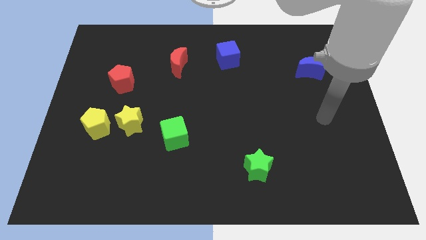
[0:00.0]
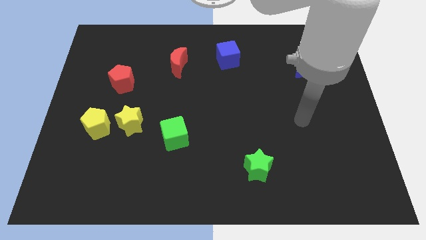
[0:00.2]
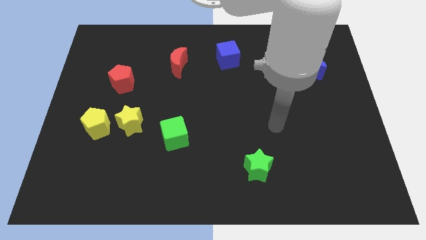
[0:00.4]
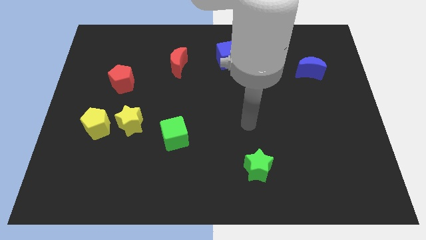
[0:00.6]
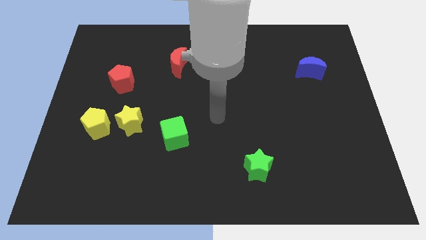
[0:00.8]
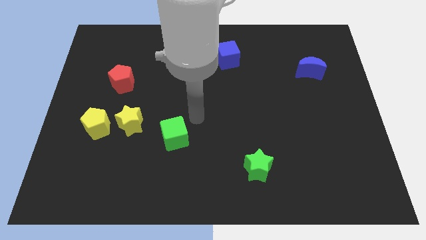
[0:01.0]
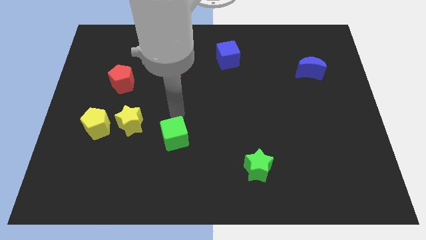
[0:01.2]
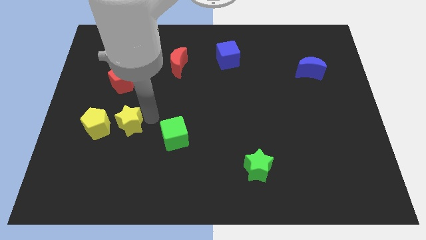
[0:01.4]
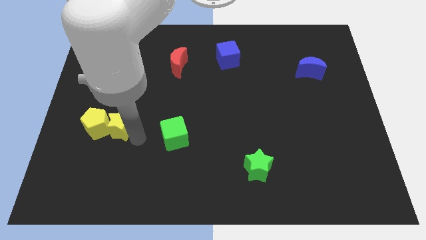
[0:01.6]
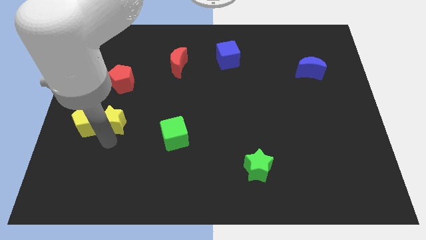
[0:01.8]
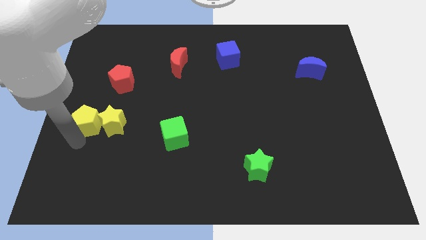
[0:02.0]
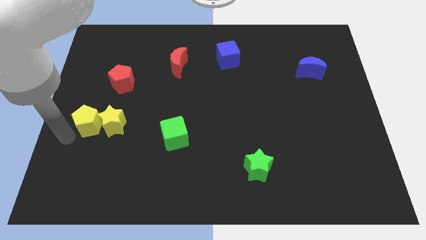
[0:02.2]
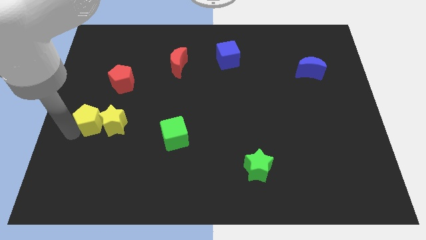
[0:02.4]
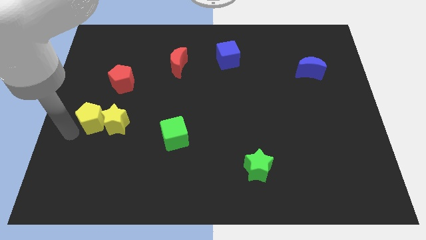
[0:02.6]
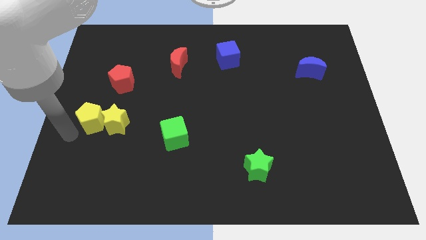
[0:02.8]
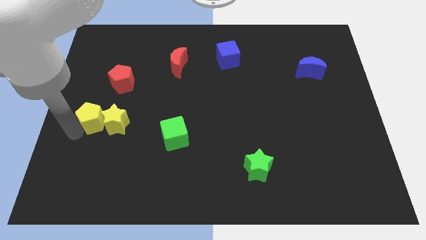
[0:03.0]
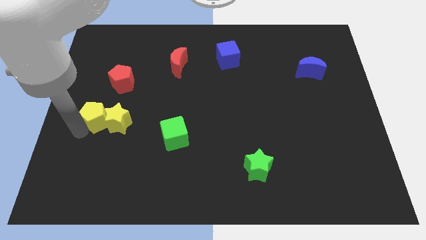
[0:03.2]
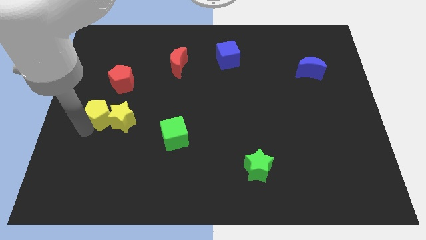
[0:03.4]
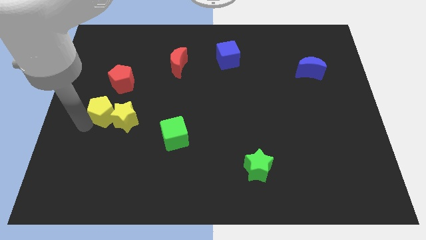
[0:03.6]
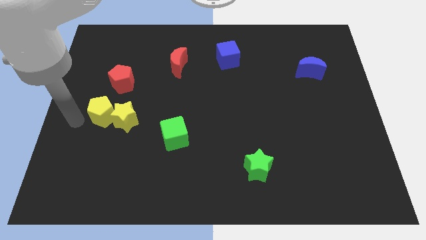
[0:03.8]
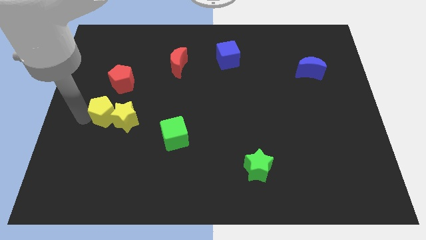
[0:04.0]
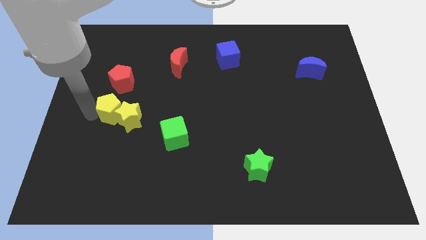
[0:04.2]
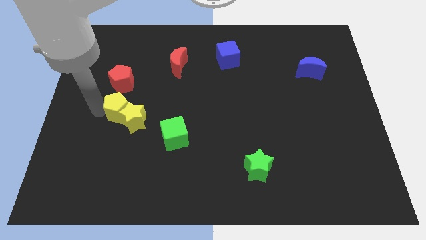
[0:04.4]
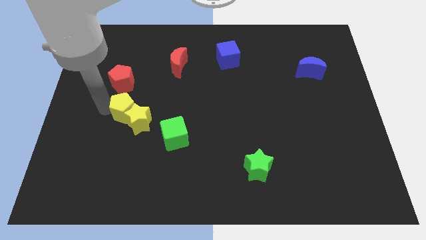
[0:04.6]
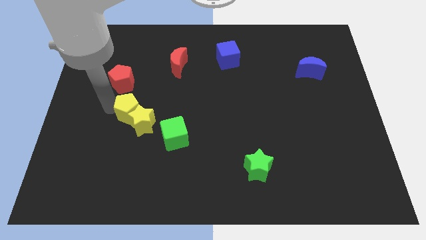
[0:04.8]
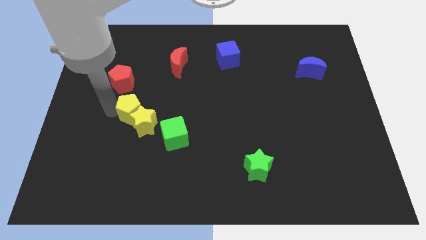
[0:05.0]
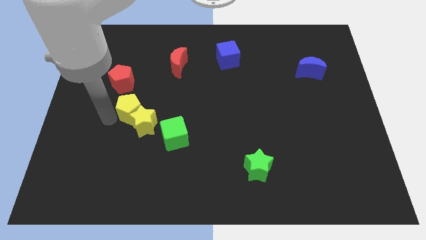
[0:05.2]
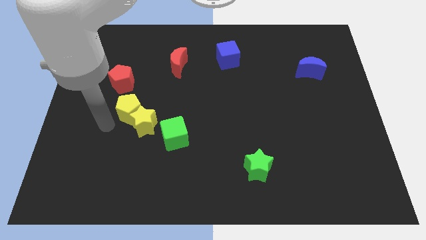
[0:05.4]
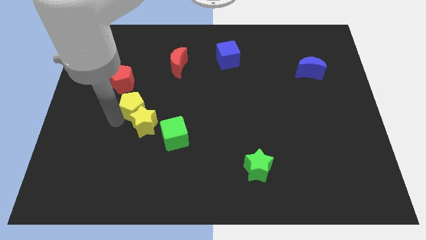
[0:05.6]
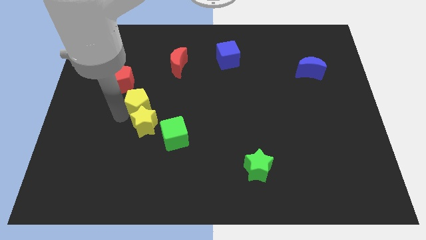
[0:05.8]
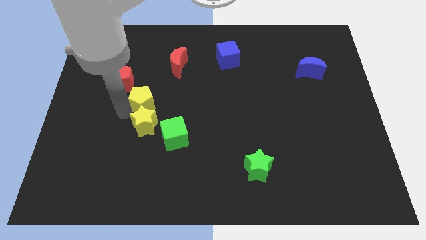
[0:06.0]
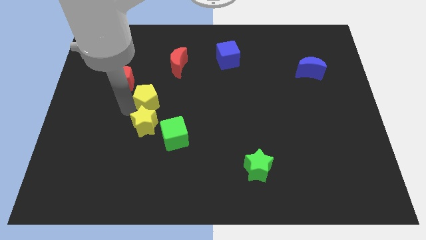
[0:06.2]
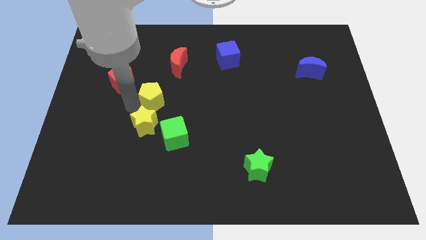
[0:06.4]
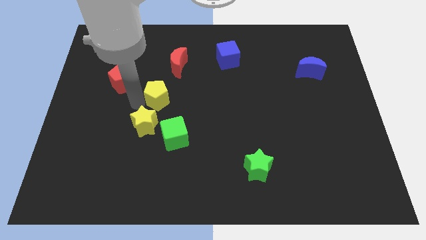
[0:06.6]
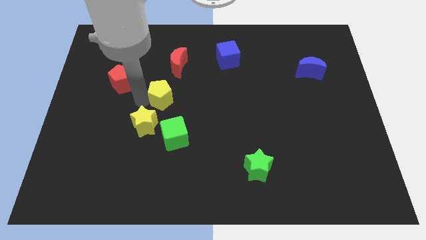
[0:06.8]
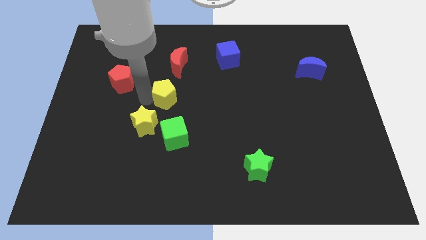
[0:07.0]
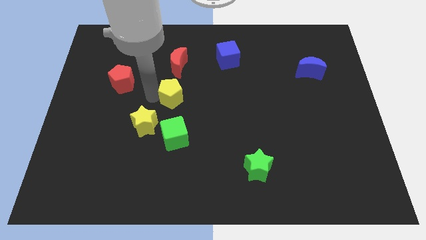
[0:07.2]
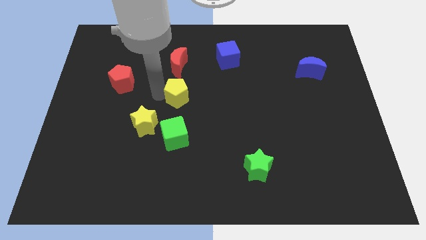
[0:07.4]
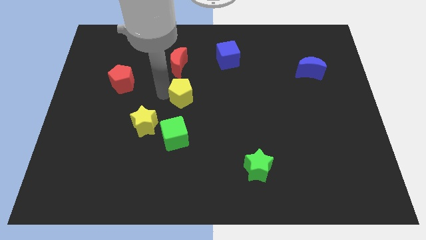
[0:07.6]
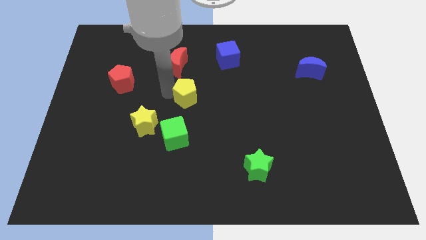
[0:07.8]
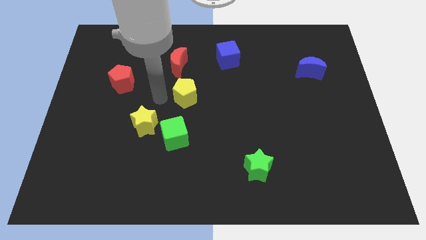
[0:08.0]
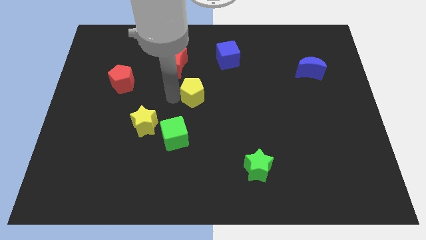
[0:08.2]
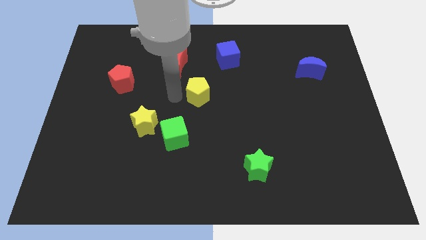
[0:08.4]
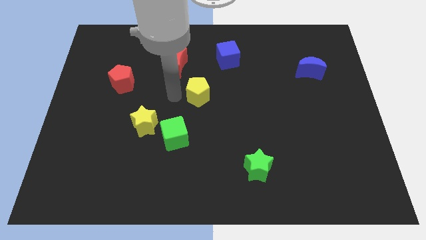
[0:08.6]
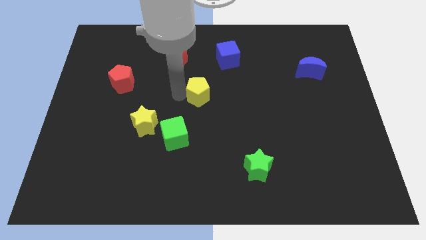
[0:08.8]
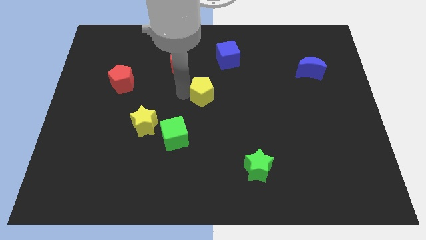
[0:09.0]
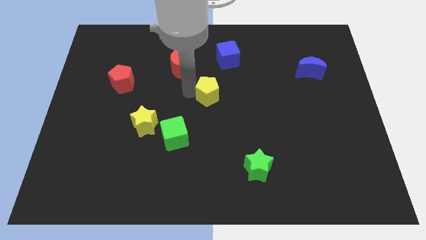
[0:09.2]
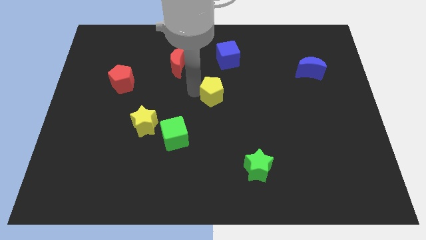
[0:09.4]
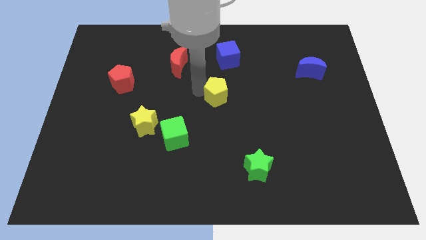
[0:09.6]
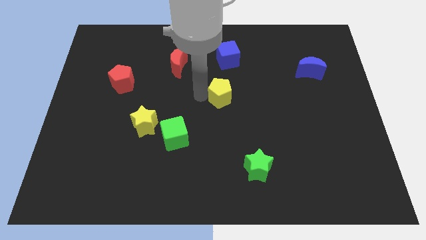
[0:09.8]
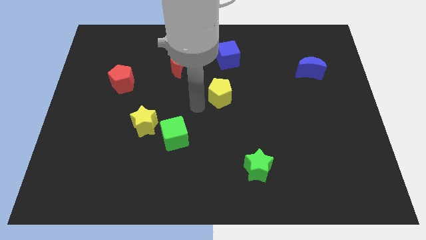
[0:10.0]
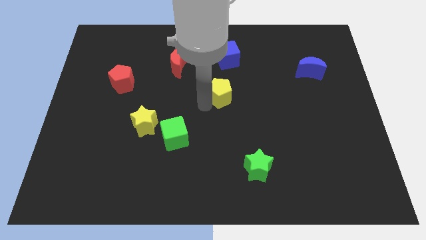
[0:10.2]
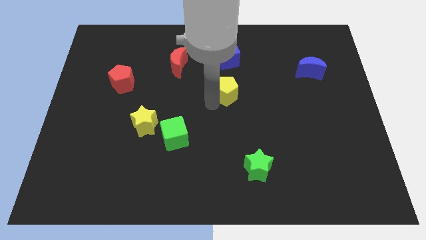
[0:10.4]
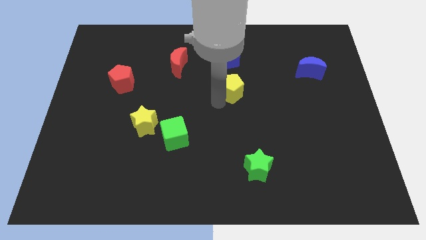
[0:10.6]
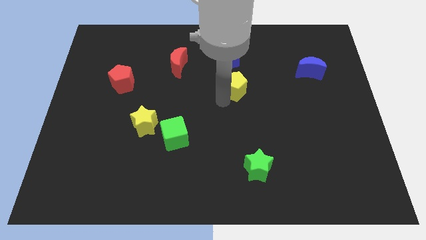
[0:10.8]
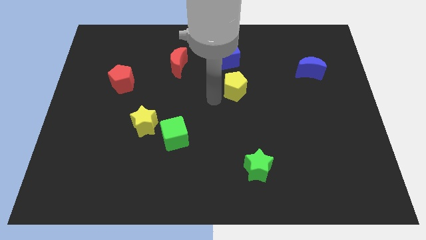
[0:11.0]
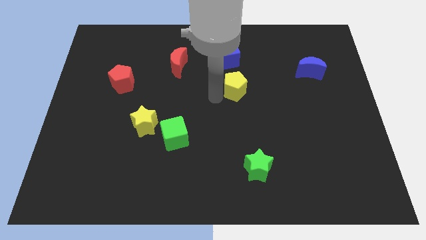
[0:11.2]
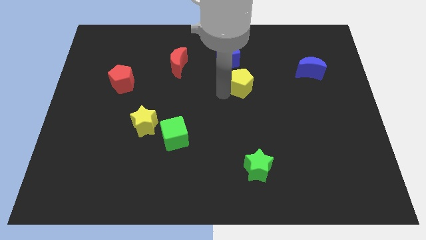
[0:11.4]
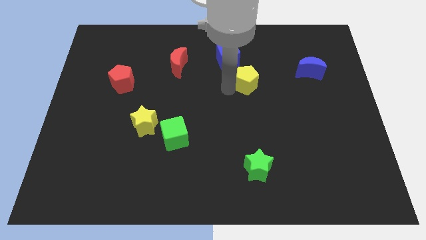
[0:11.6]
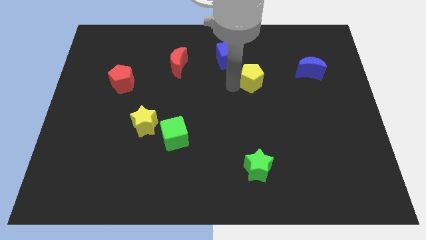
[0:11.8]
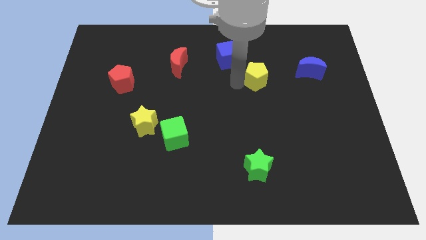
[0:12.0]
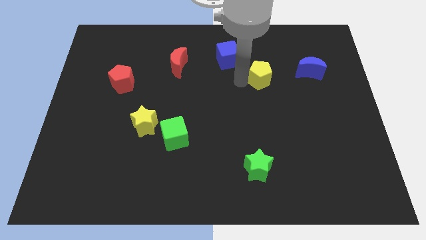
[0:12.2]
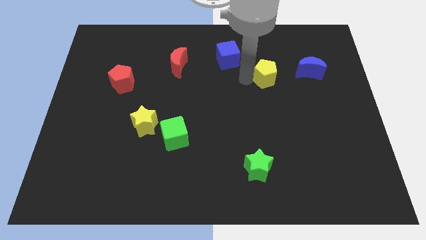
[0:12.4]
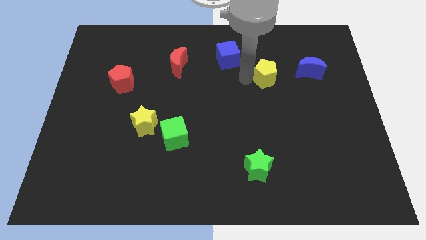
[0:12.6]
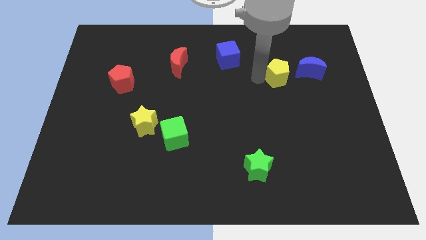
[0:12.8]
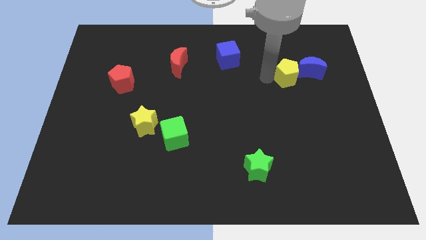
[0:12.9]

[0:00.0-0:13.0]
slide the yellow pentagon close to the blue moon

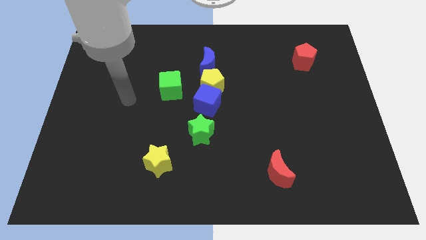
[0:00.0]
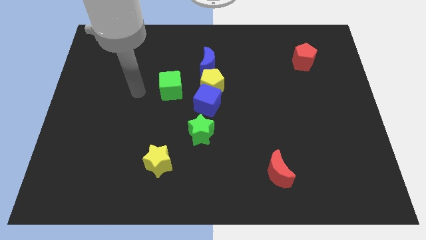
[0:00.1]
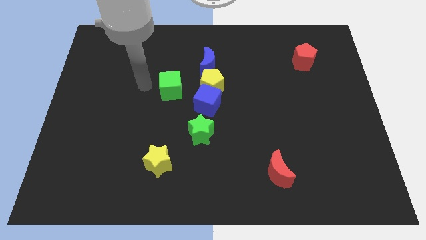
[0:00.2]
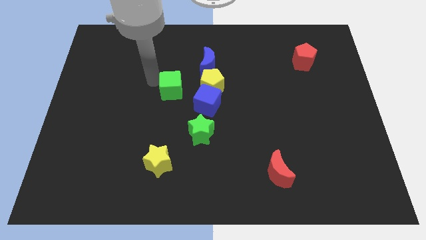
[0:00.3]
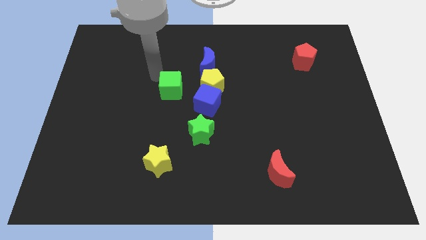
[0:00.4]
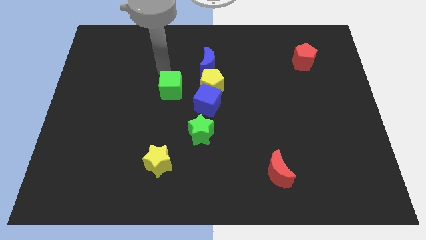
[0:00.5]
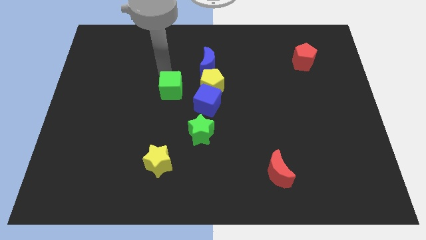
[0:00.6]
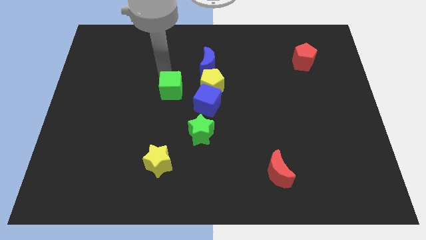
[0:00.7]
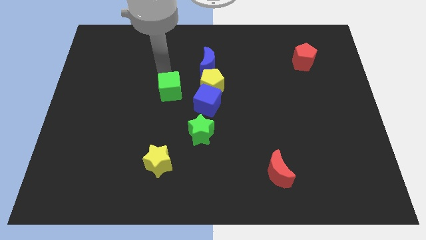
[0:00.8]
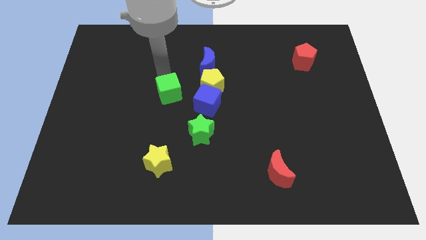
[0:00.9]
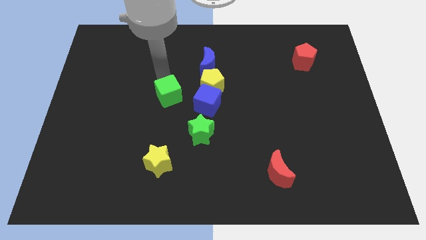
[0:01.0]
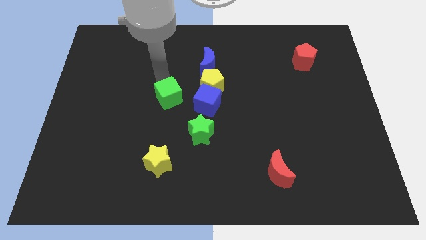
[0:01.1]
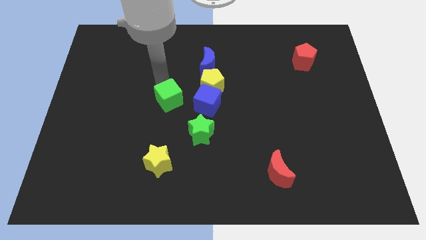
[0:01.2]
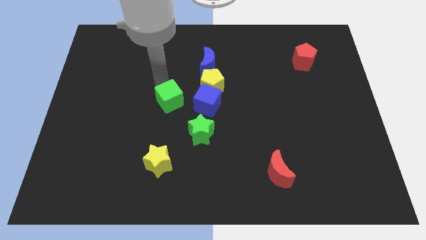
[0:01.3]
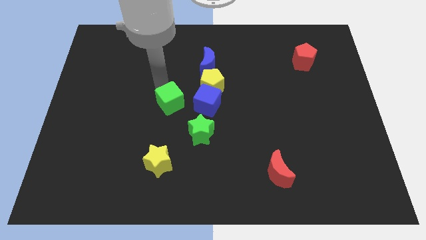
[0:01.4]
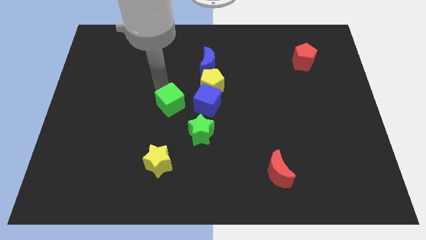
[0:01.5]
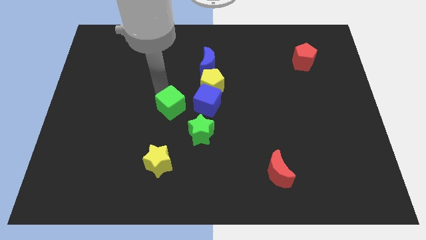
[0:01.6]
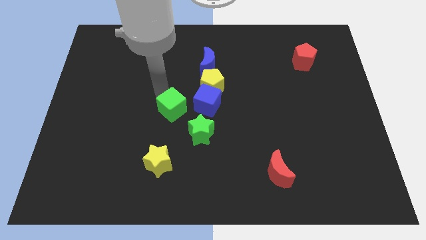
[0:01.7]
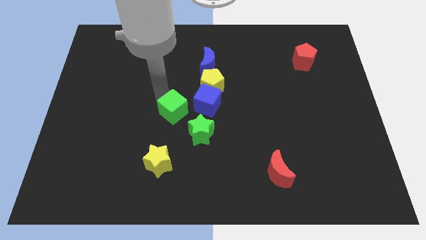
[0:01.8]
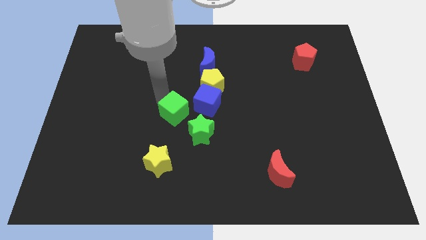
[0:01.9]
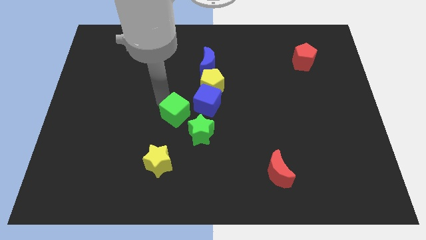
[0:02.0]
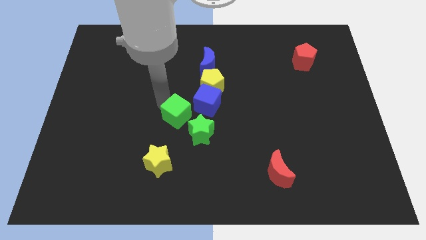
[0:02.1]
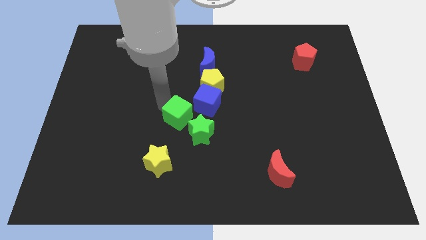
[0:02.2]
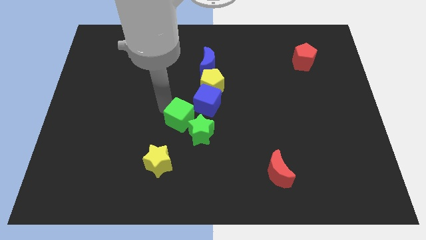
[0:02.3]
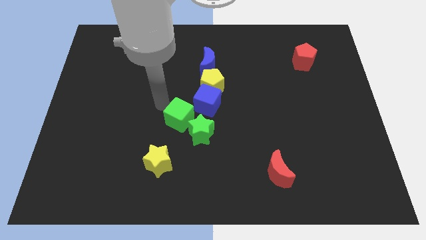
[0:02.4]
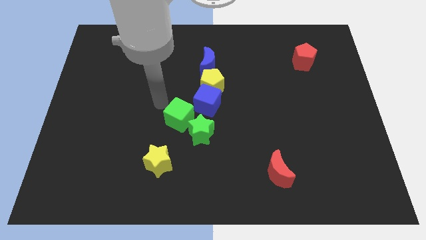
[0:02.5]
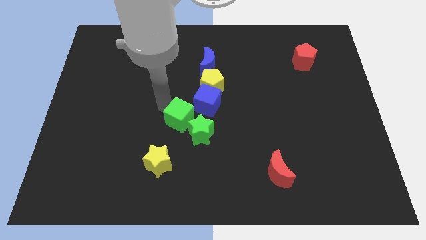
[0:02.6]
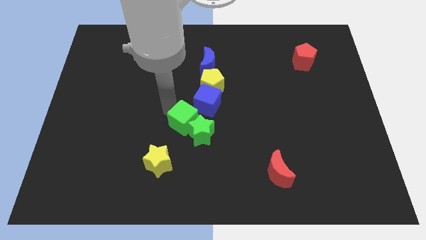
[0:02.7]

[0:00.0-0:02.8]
push the green cube close to the green star
